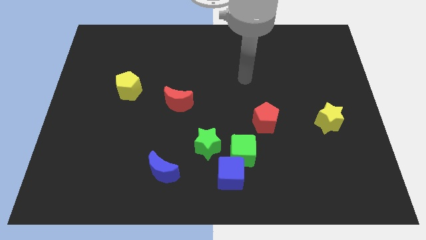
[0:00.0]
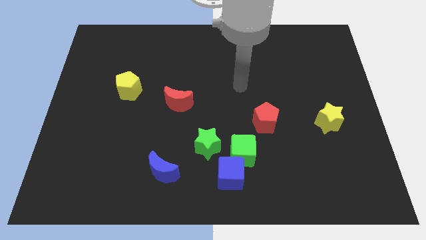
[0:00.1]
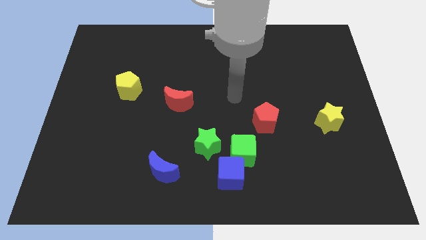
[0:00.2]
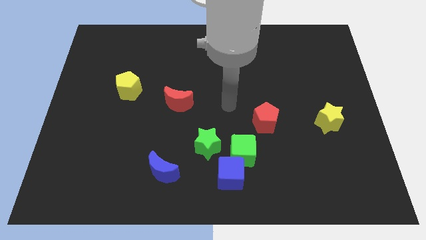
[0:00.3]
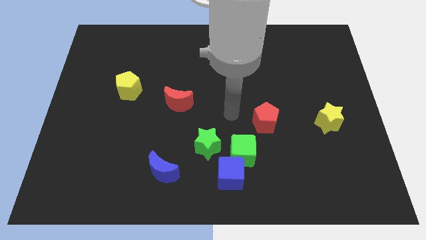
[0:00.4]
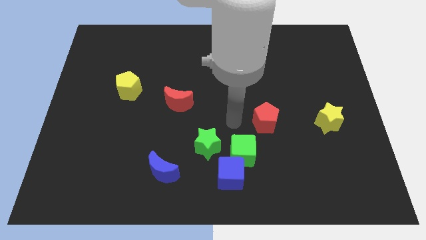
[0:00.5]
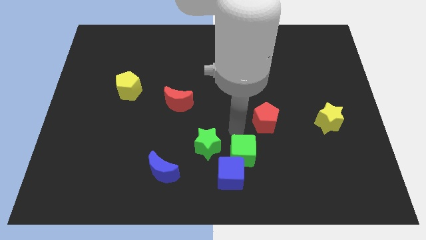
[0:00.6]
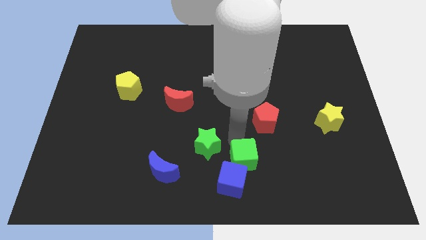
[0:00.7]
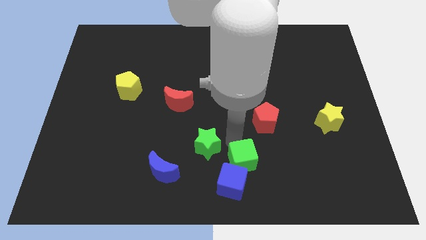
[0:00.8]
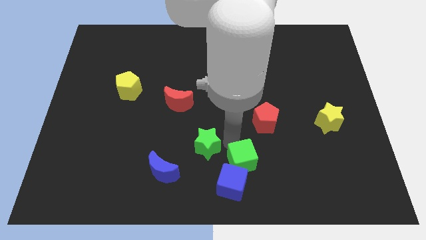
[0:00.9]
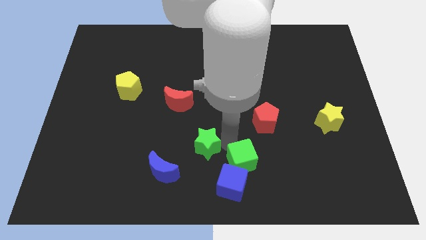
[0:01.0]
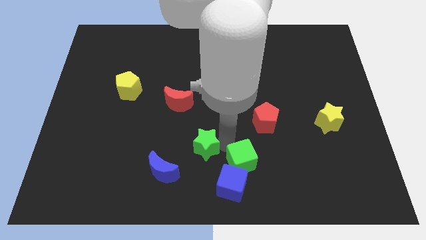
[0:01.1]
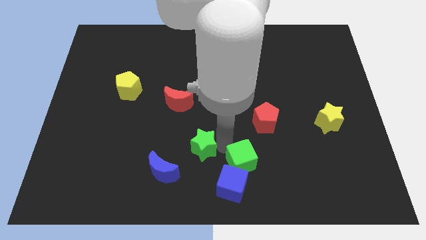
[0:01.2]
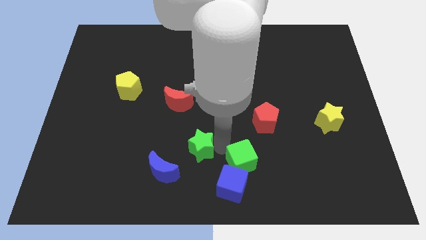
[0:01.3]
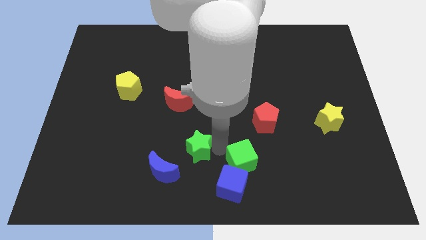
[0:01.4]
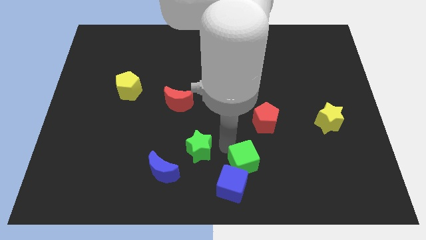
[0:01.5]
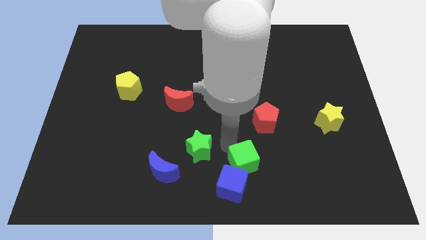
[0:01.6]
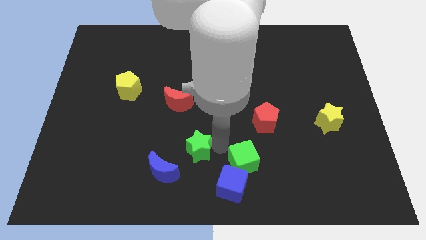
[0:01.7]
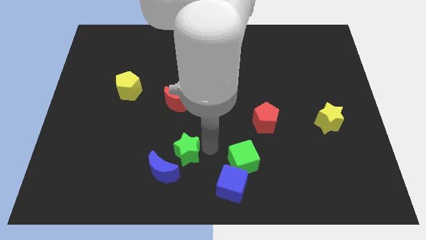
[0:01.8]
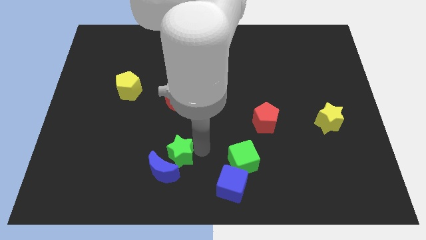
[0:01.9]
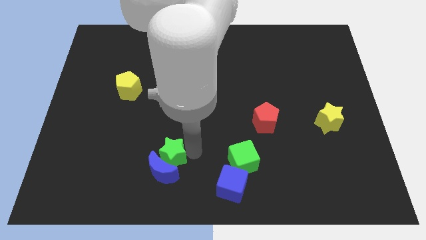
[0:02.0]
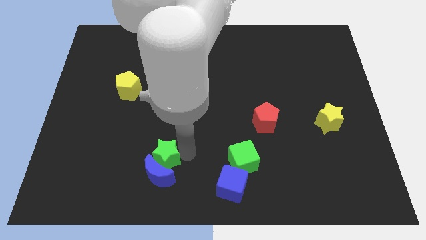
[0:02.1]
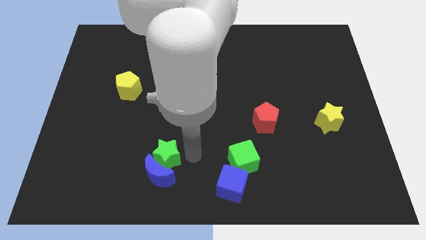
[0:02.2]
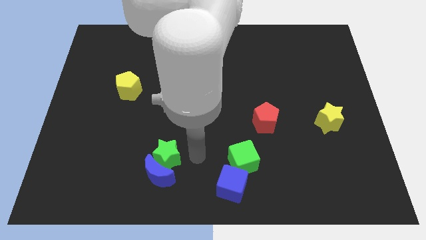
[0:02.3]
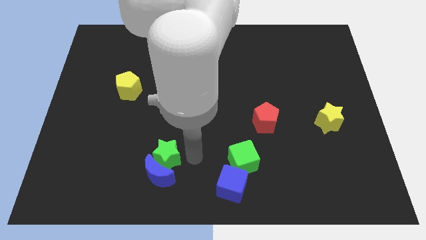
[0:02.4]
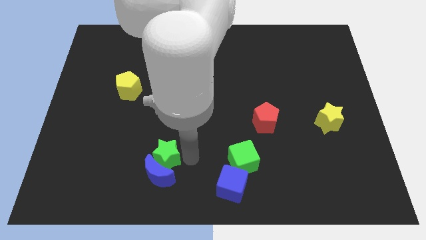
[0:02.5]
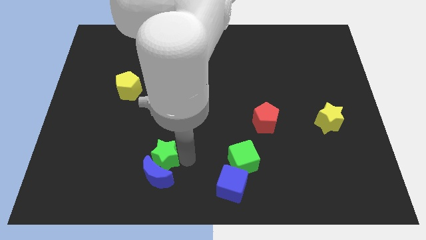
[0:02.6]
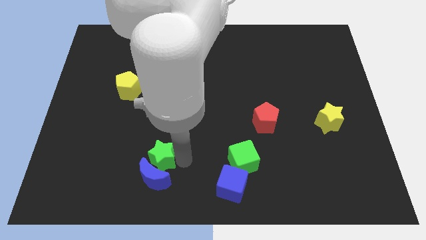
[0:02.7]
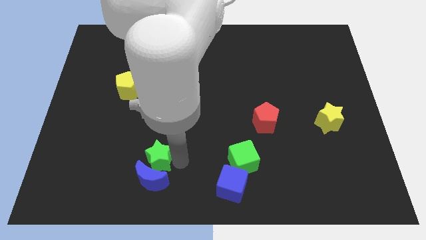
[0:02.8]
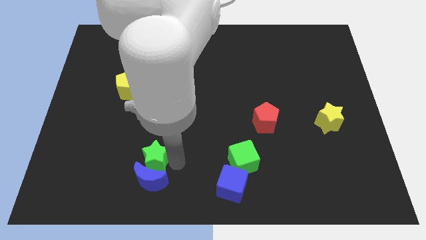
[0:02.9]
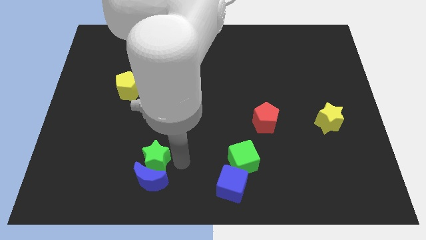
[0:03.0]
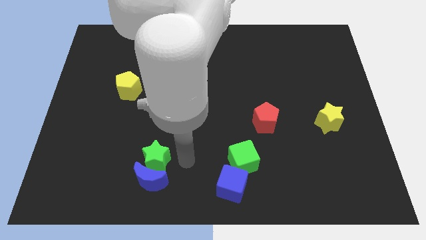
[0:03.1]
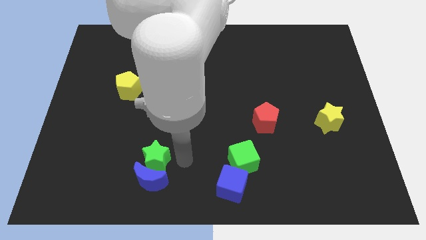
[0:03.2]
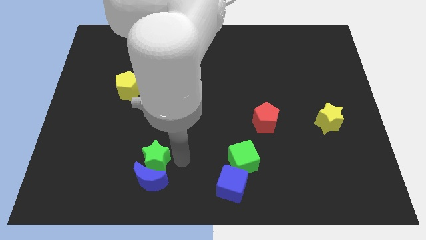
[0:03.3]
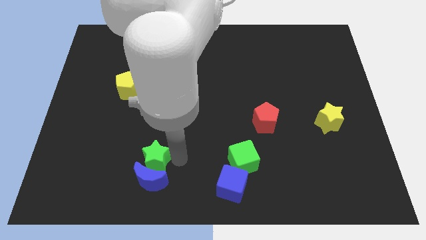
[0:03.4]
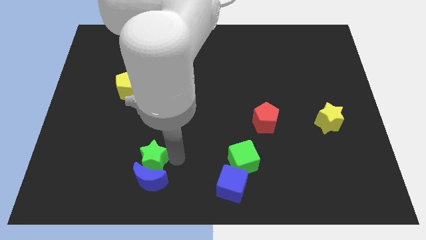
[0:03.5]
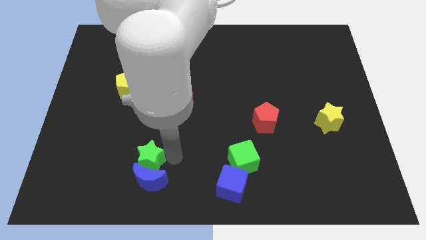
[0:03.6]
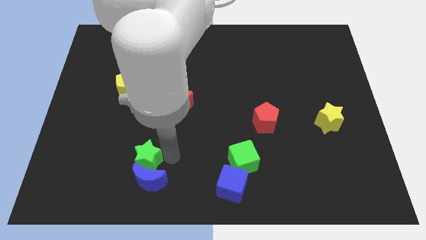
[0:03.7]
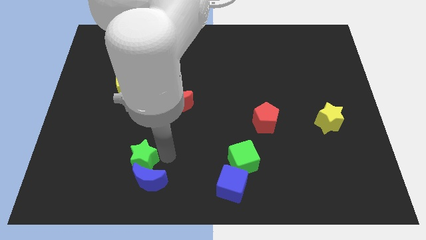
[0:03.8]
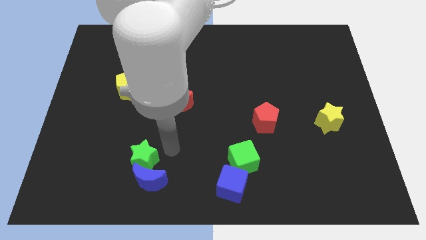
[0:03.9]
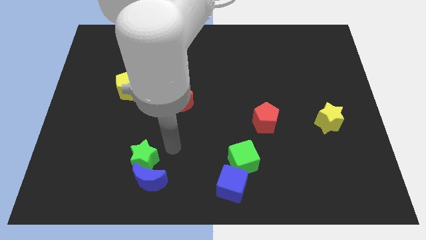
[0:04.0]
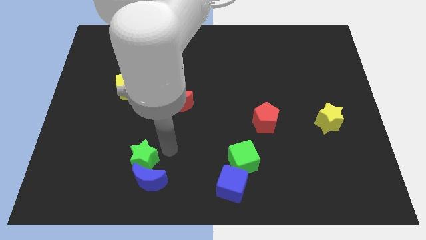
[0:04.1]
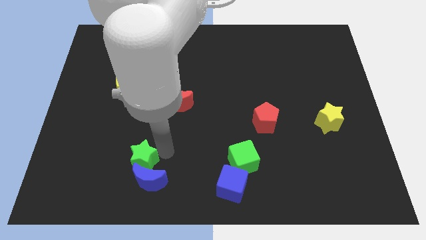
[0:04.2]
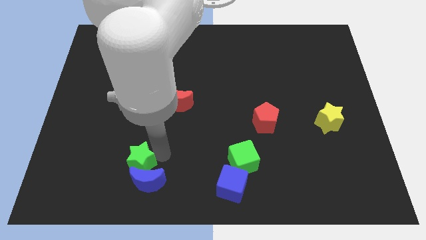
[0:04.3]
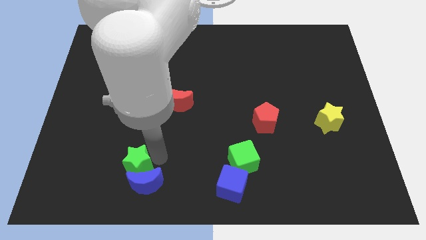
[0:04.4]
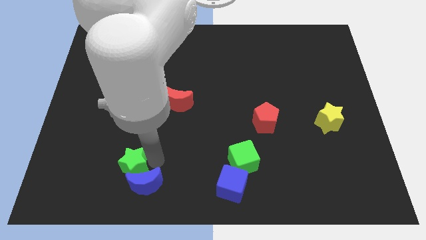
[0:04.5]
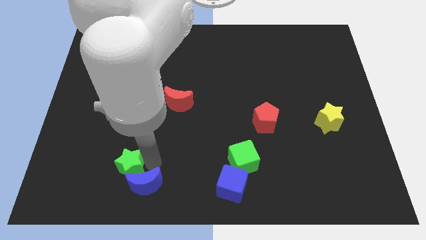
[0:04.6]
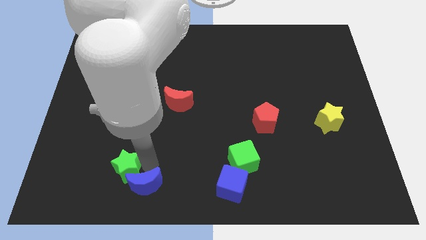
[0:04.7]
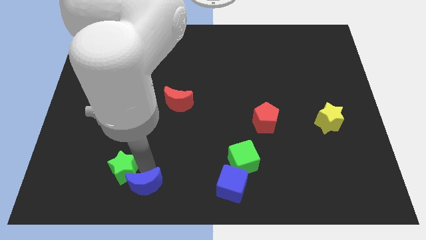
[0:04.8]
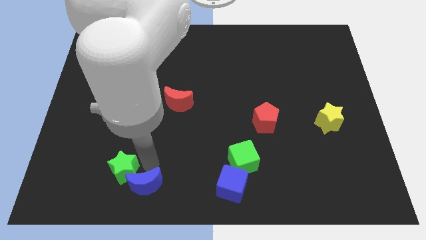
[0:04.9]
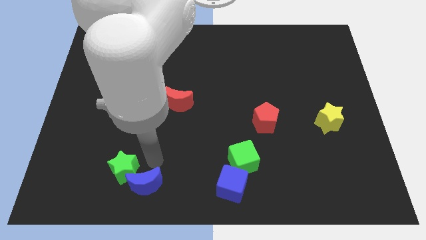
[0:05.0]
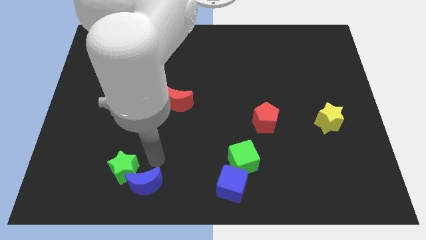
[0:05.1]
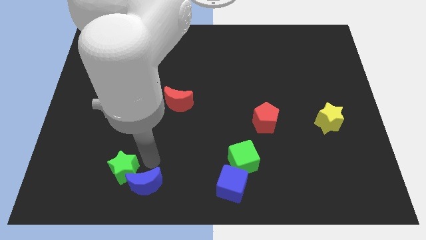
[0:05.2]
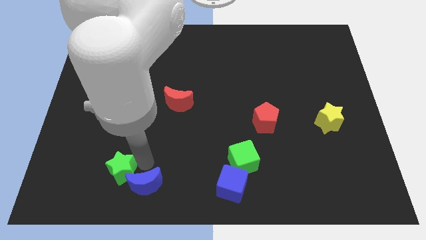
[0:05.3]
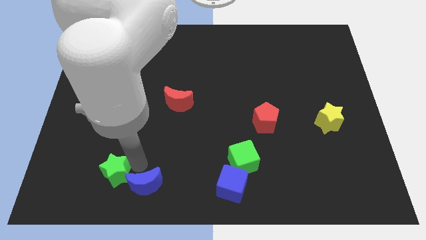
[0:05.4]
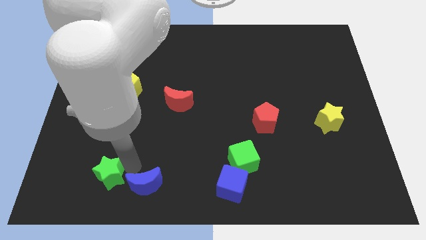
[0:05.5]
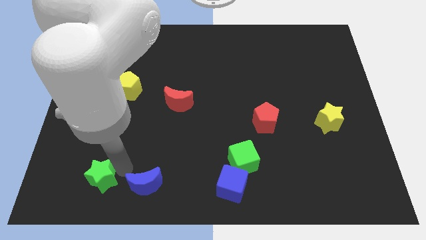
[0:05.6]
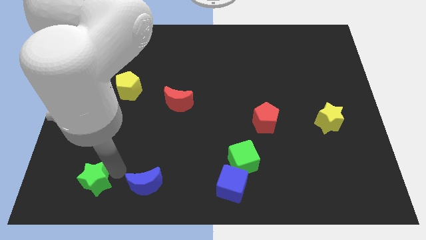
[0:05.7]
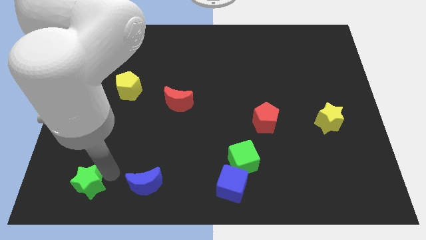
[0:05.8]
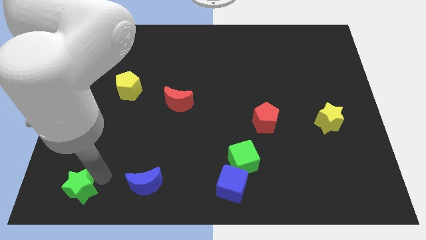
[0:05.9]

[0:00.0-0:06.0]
move the green star to the bottom left corner
